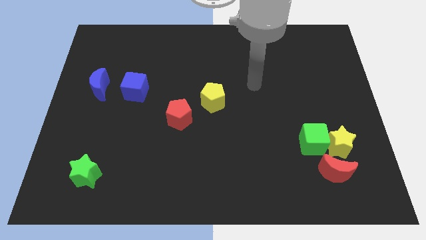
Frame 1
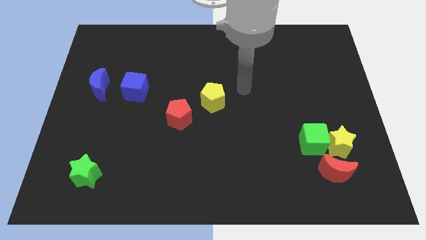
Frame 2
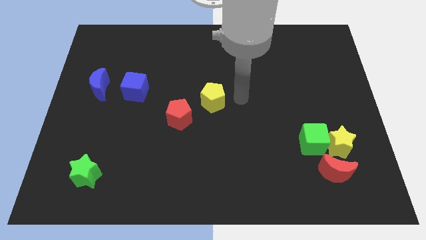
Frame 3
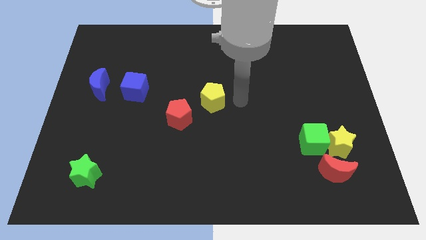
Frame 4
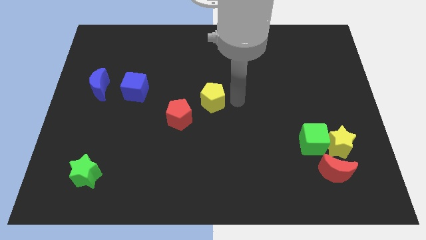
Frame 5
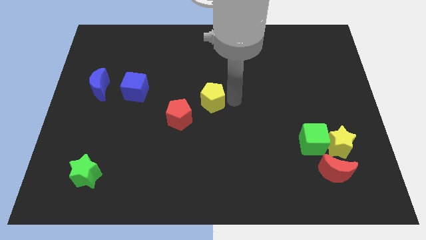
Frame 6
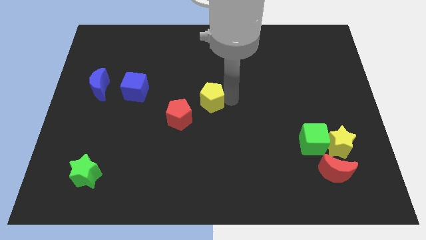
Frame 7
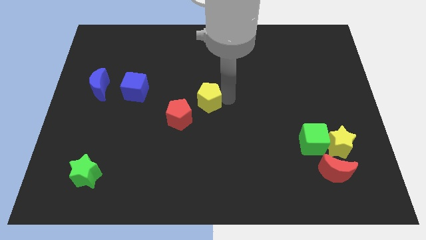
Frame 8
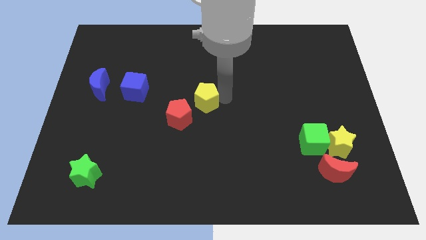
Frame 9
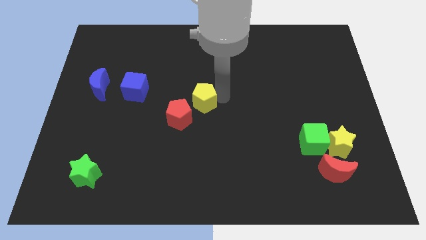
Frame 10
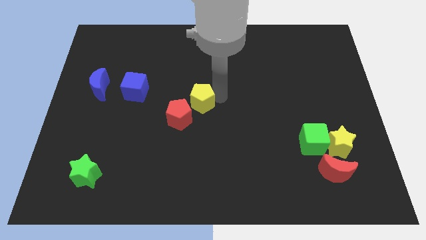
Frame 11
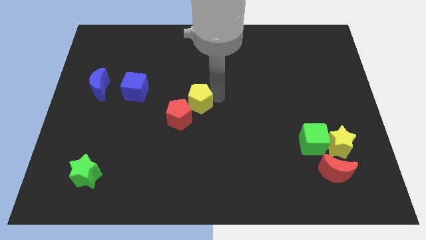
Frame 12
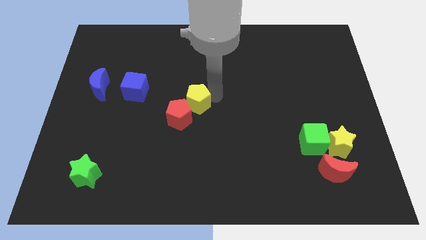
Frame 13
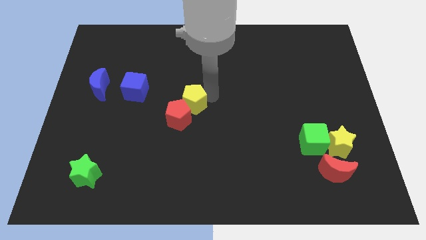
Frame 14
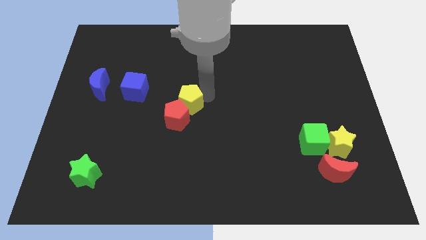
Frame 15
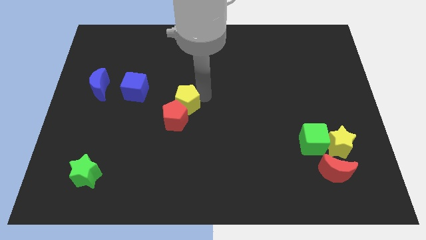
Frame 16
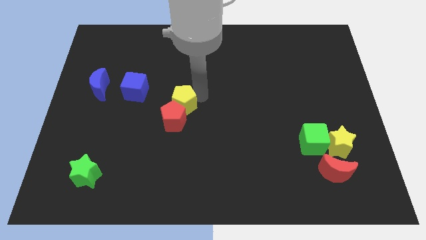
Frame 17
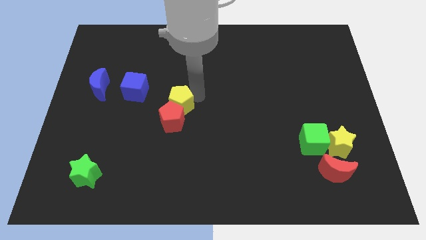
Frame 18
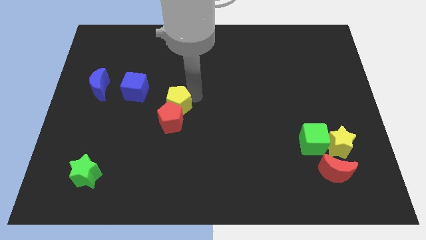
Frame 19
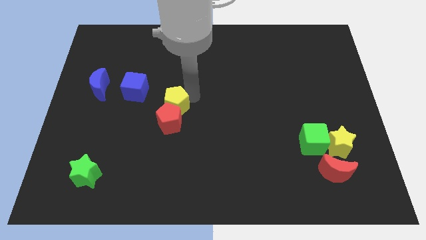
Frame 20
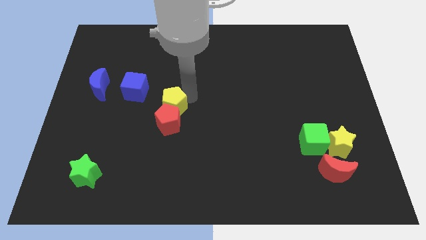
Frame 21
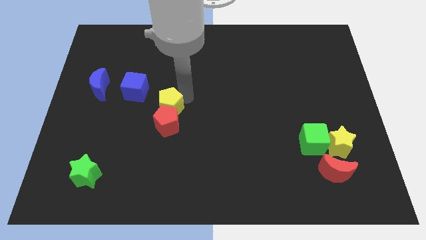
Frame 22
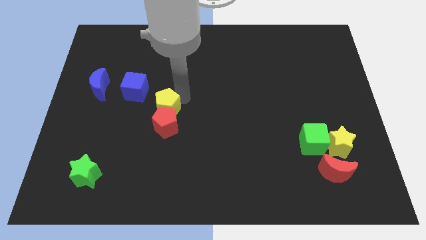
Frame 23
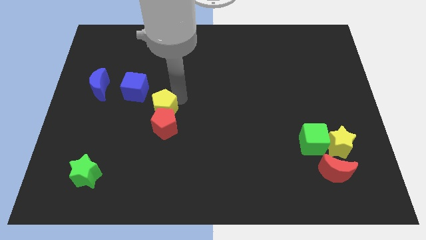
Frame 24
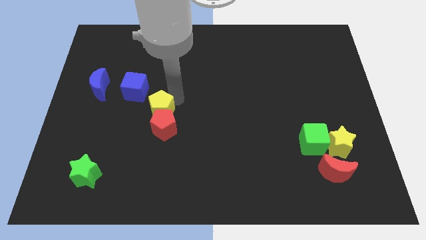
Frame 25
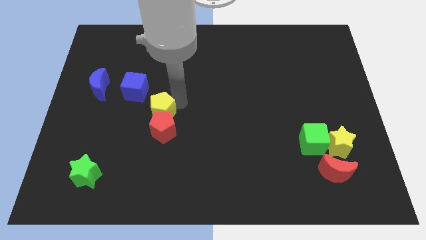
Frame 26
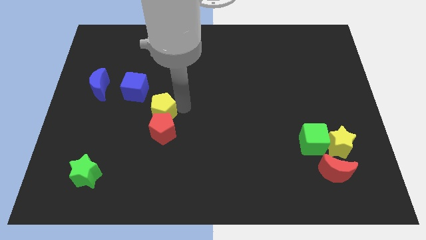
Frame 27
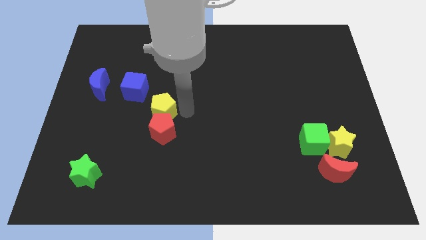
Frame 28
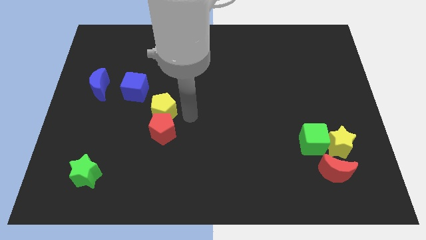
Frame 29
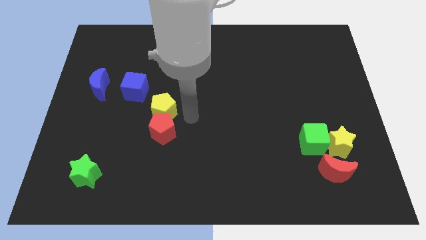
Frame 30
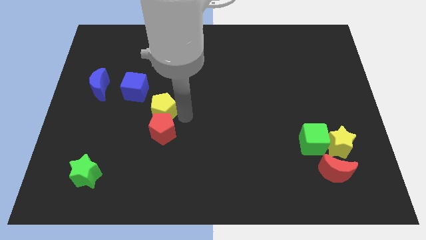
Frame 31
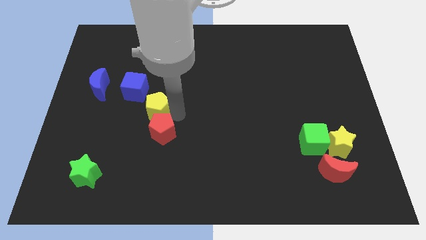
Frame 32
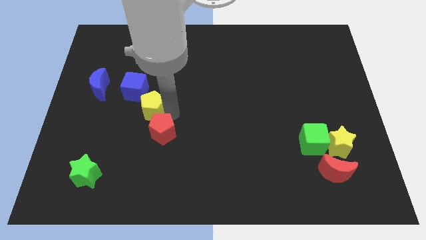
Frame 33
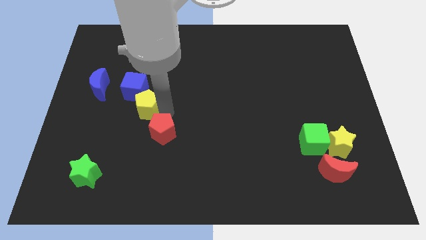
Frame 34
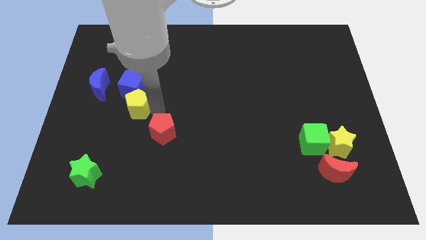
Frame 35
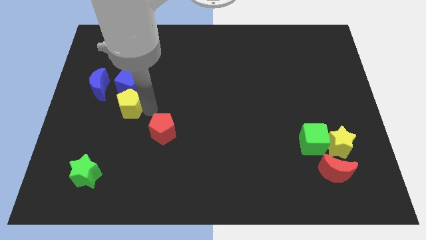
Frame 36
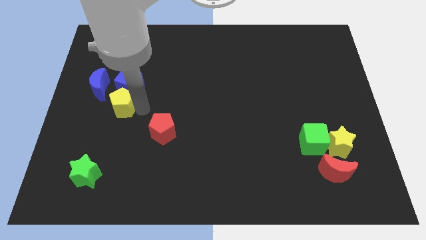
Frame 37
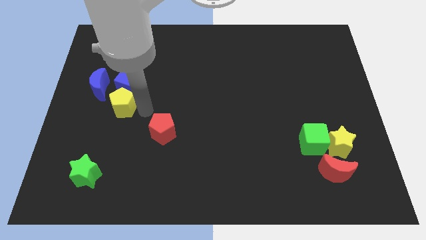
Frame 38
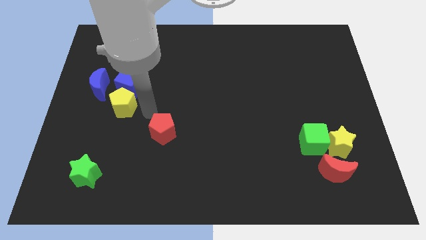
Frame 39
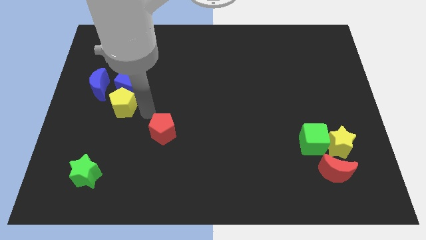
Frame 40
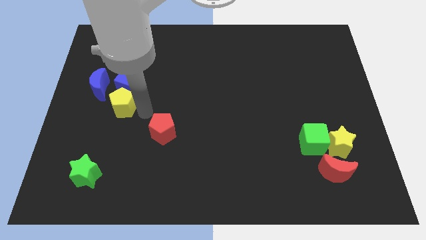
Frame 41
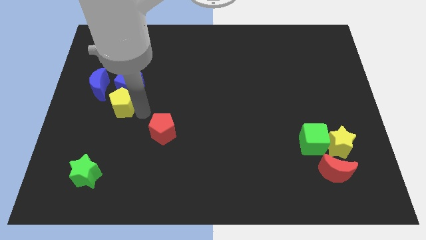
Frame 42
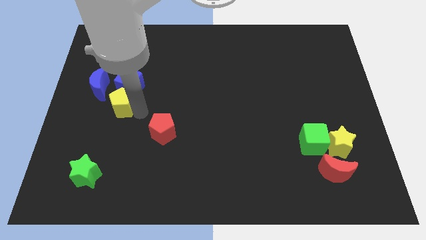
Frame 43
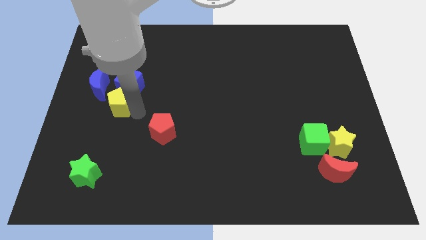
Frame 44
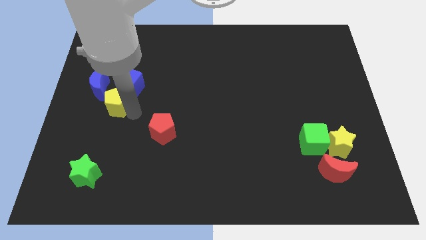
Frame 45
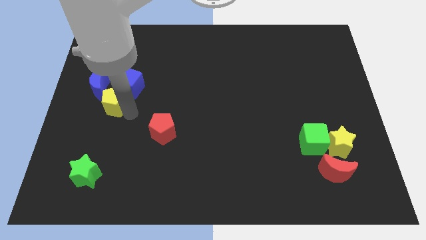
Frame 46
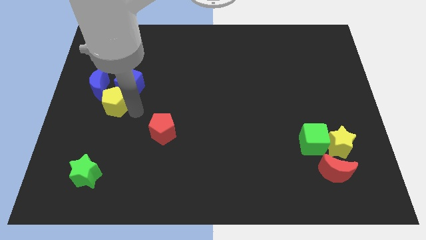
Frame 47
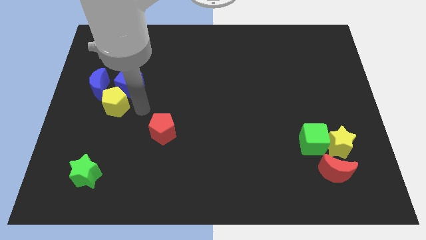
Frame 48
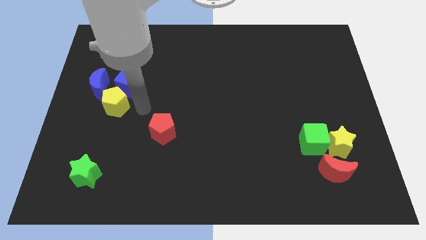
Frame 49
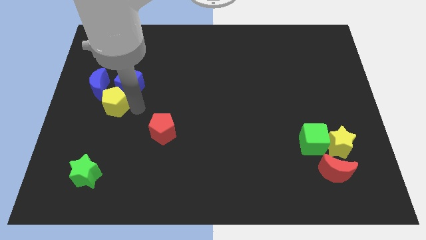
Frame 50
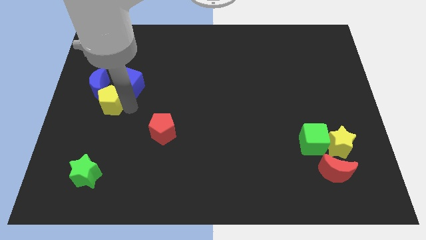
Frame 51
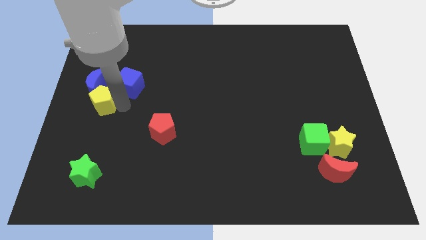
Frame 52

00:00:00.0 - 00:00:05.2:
move the yellow pentagon to the left side of the board

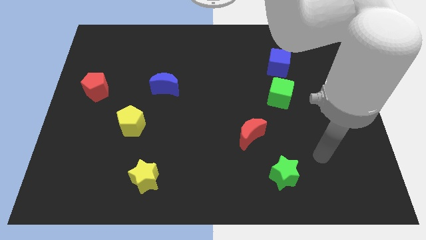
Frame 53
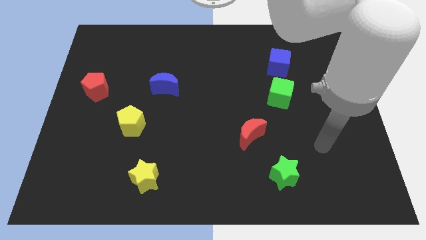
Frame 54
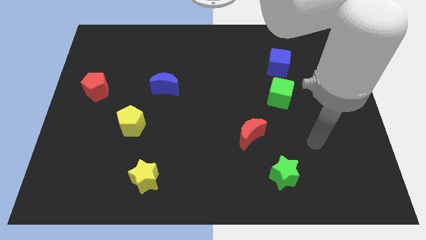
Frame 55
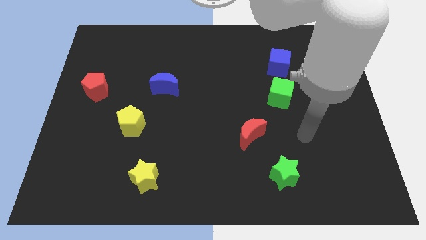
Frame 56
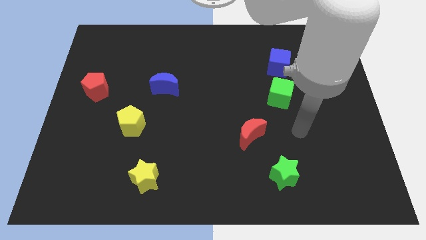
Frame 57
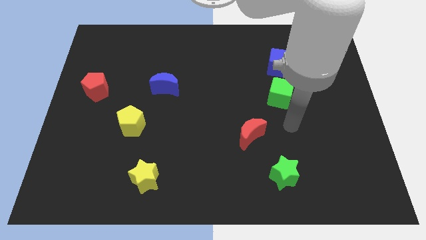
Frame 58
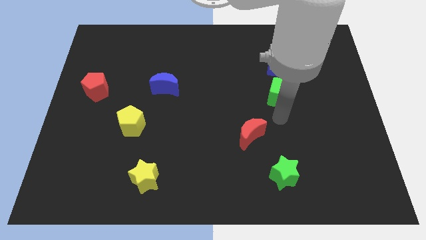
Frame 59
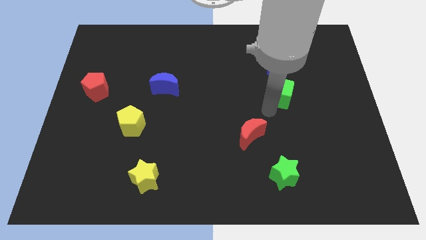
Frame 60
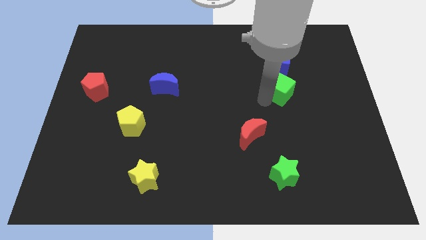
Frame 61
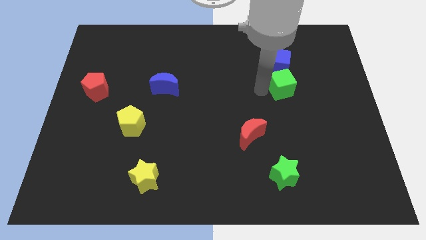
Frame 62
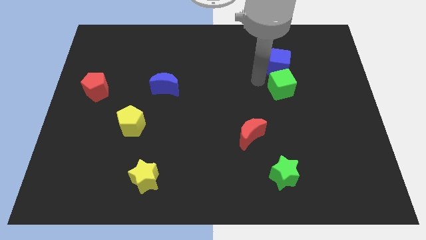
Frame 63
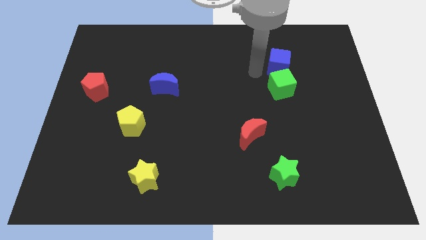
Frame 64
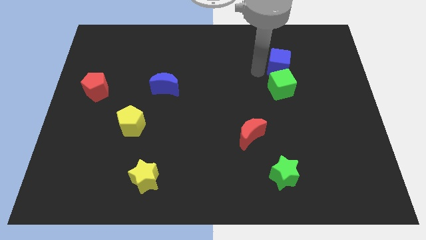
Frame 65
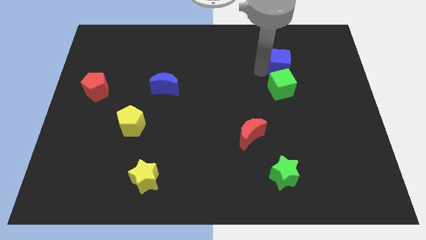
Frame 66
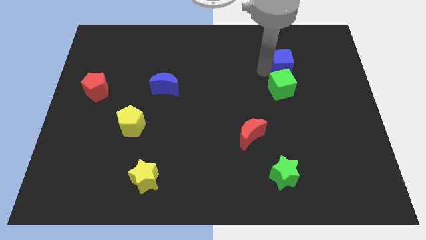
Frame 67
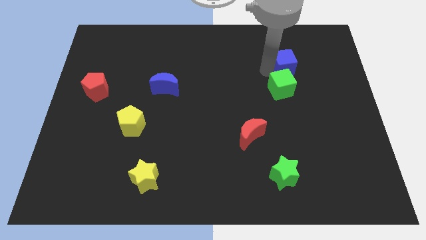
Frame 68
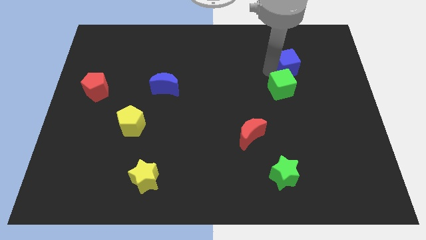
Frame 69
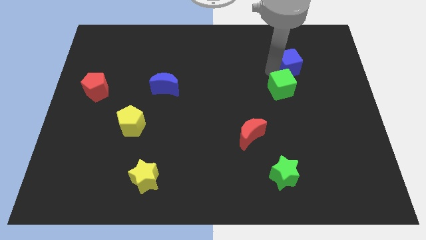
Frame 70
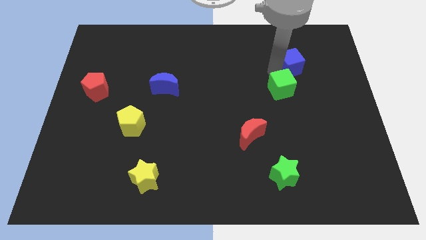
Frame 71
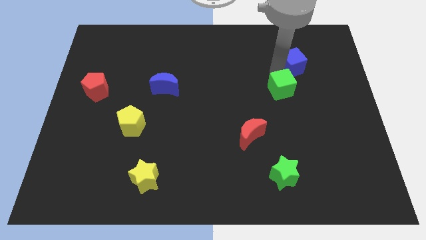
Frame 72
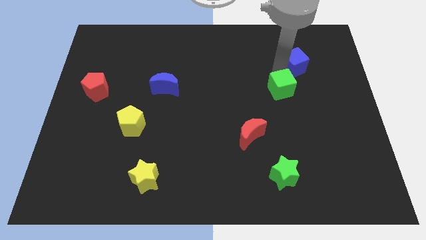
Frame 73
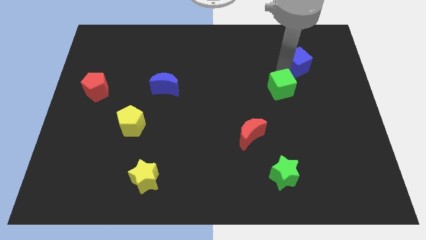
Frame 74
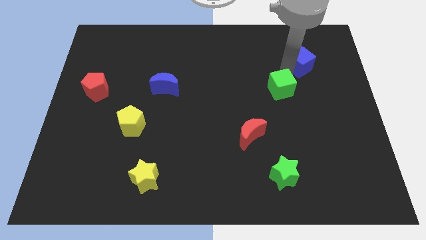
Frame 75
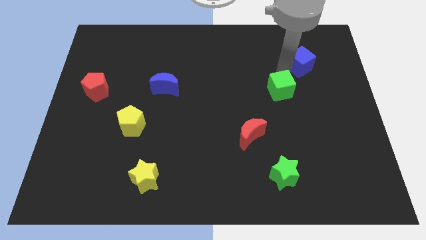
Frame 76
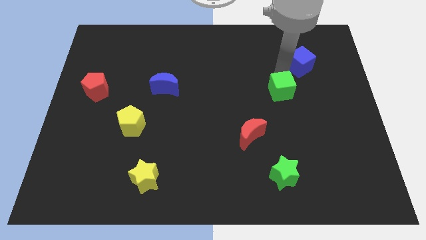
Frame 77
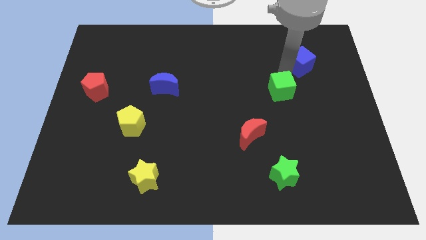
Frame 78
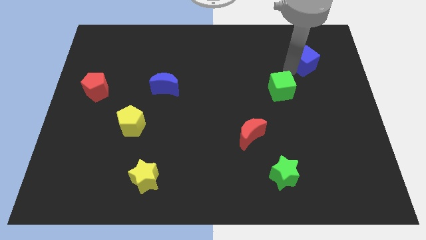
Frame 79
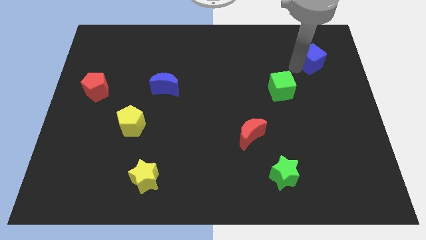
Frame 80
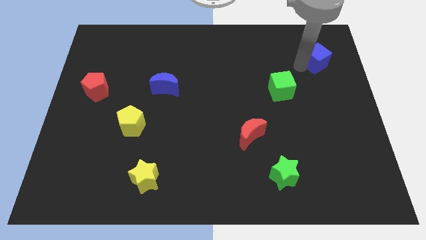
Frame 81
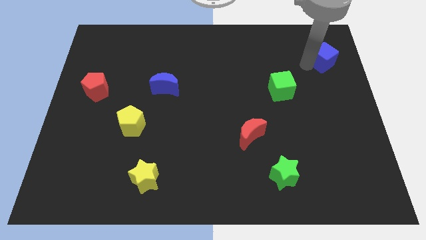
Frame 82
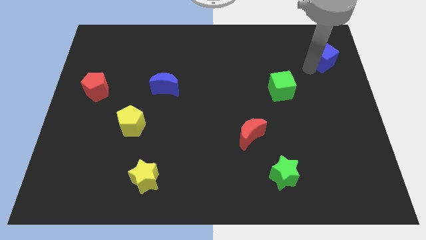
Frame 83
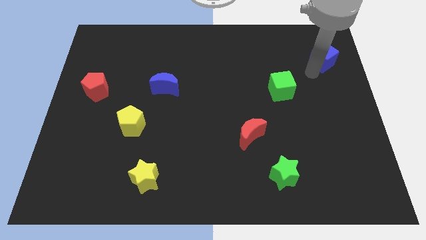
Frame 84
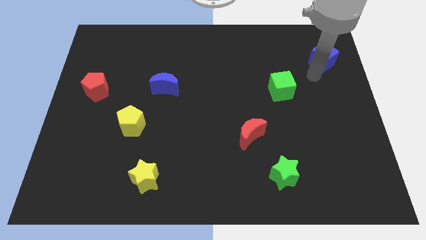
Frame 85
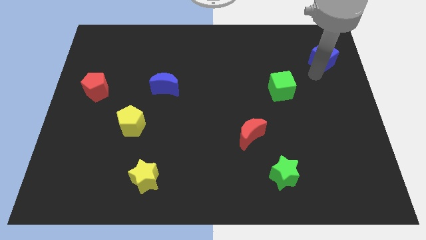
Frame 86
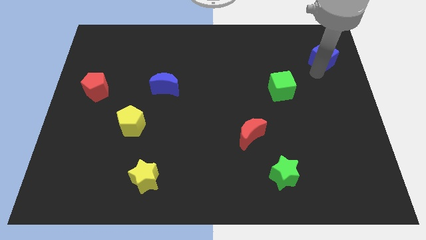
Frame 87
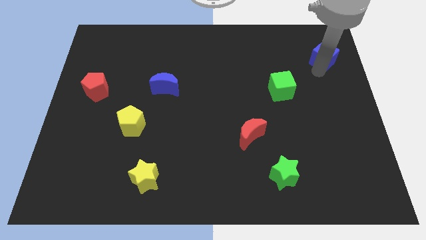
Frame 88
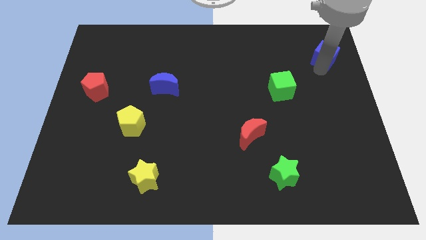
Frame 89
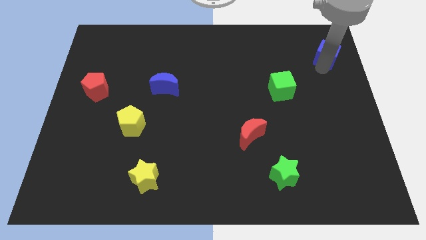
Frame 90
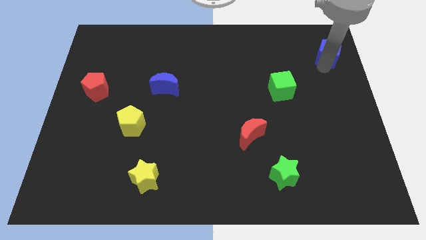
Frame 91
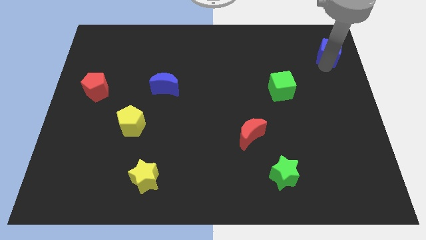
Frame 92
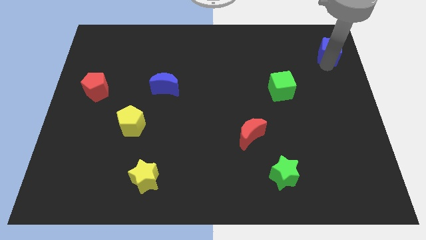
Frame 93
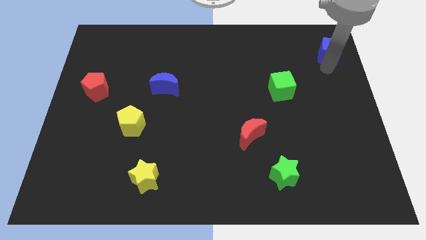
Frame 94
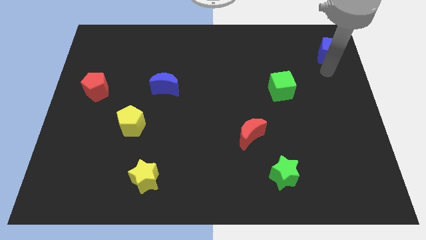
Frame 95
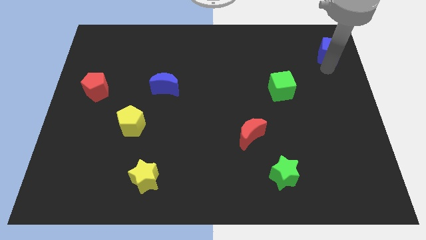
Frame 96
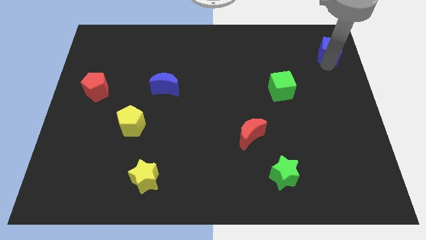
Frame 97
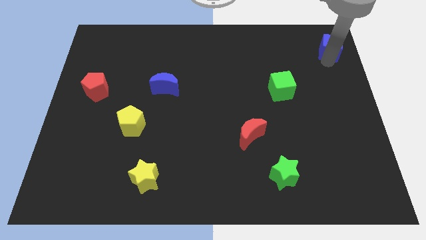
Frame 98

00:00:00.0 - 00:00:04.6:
put the blue cube to the top right corner
